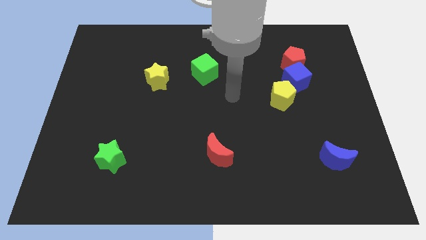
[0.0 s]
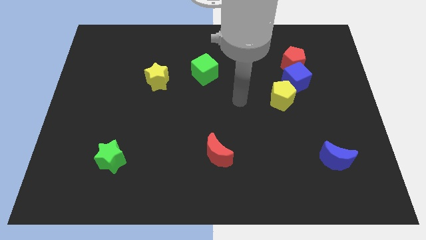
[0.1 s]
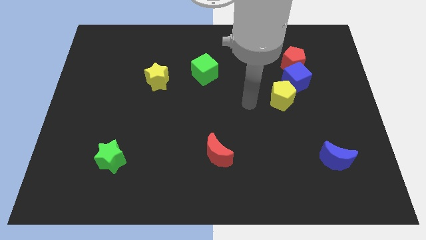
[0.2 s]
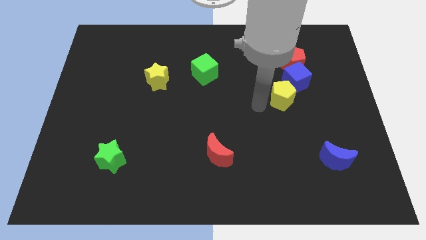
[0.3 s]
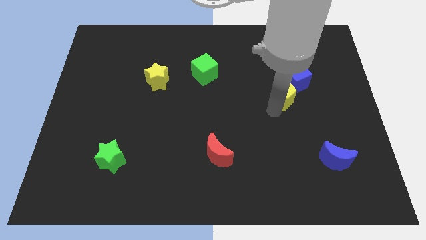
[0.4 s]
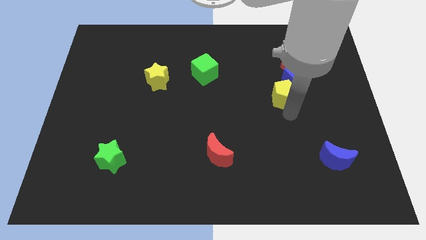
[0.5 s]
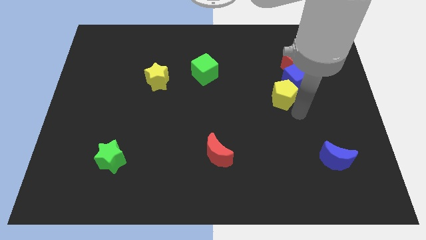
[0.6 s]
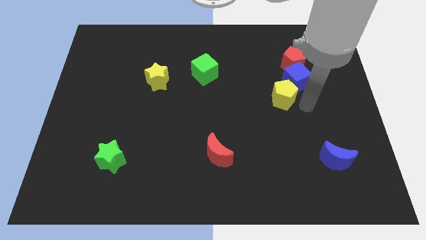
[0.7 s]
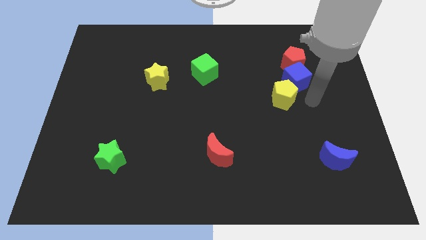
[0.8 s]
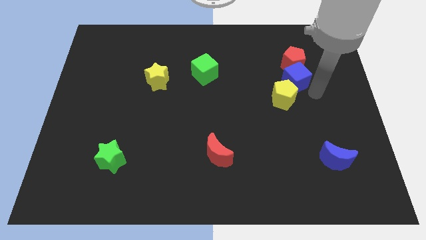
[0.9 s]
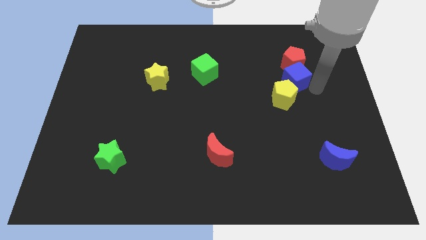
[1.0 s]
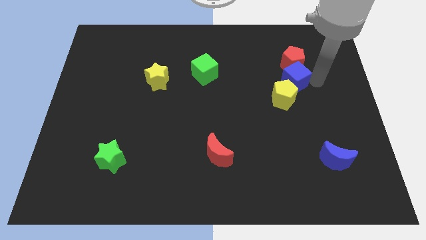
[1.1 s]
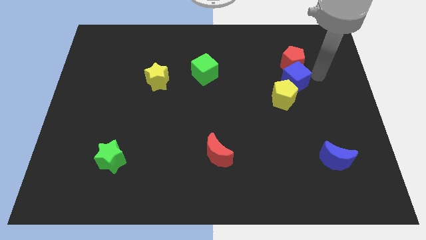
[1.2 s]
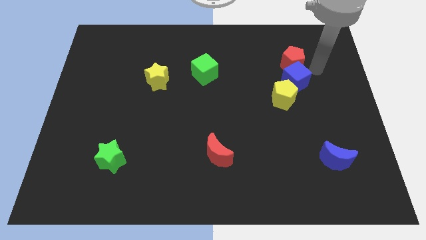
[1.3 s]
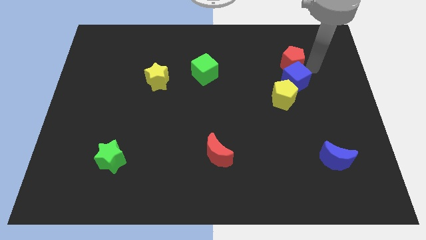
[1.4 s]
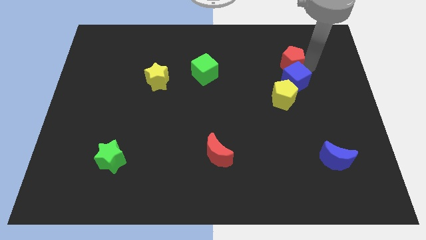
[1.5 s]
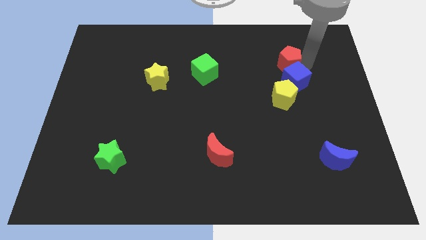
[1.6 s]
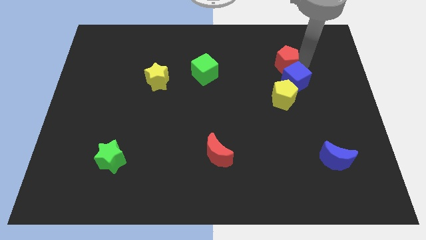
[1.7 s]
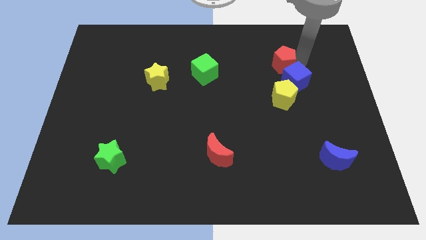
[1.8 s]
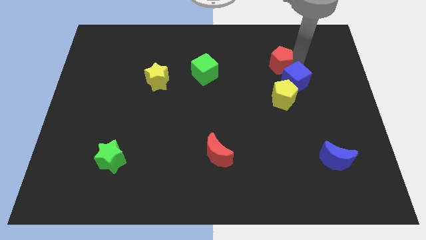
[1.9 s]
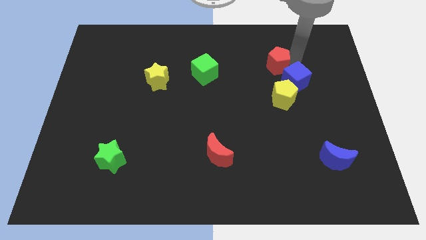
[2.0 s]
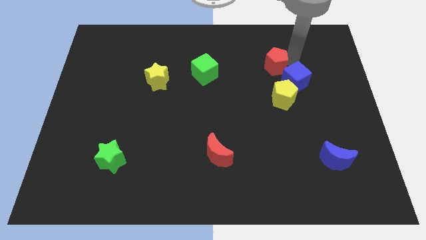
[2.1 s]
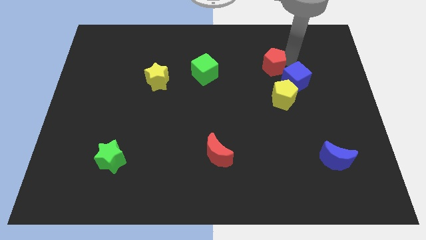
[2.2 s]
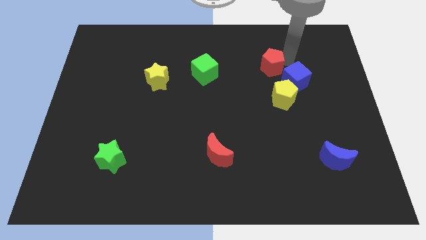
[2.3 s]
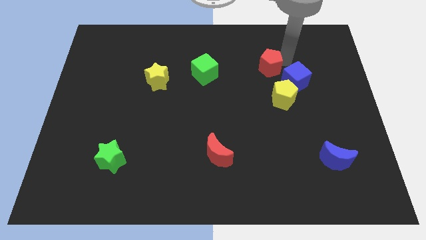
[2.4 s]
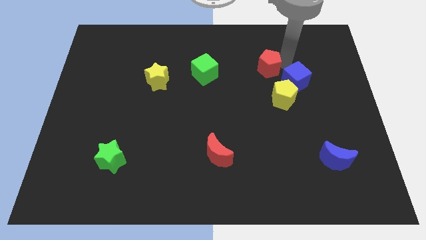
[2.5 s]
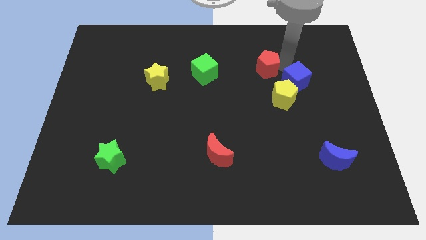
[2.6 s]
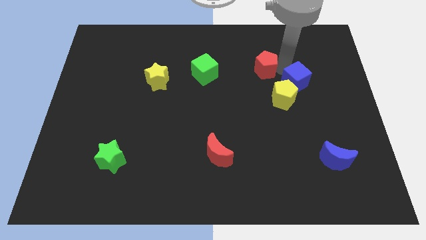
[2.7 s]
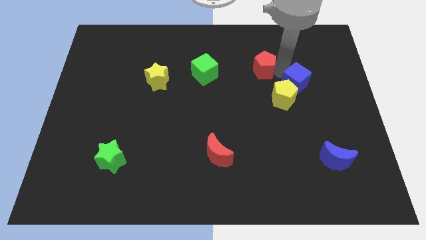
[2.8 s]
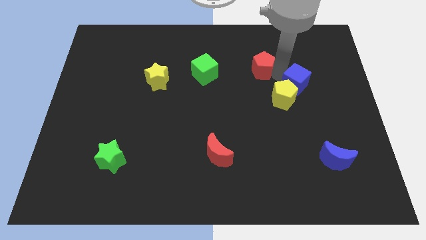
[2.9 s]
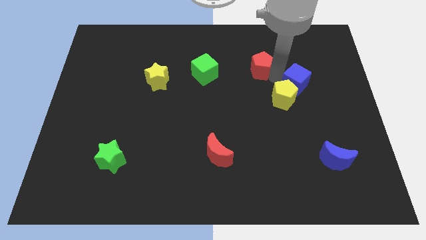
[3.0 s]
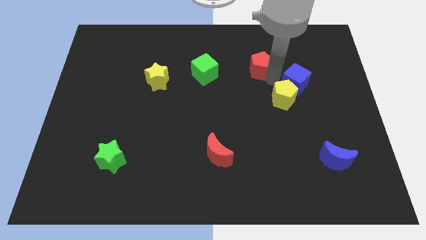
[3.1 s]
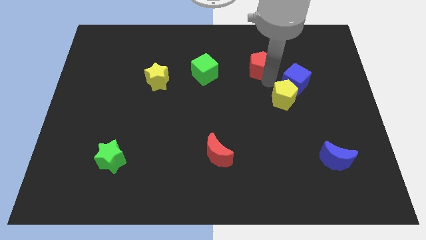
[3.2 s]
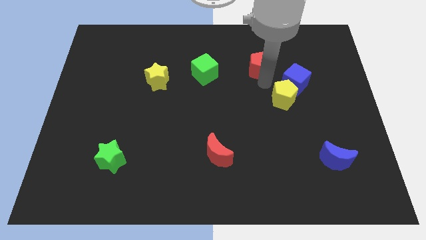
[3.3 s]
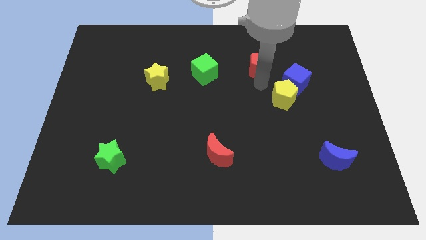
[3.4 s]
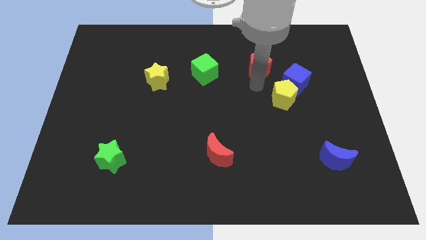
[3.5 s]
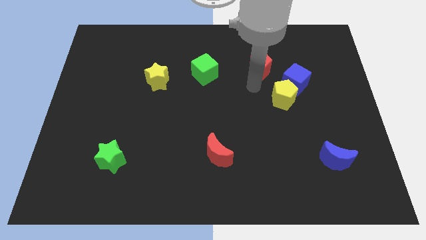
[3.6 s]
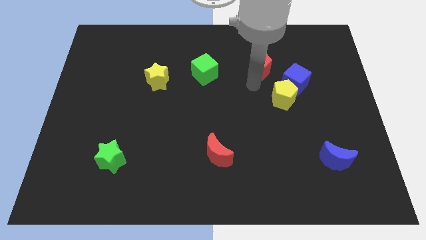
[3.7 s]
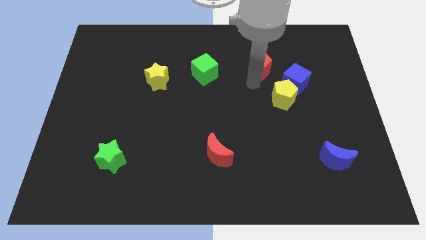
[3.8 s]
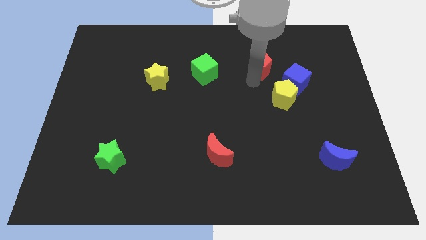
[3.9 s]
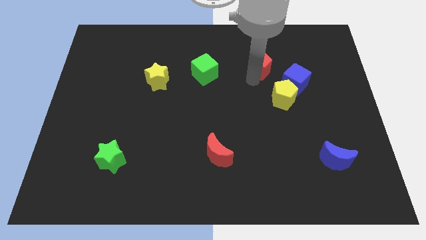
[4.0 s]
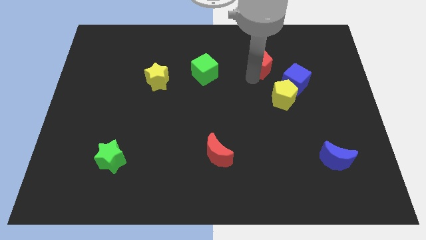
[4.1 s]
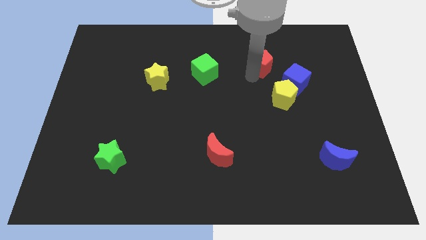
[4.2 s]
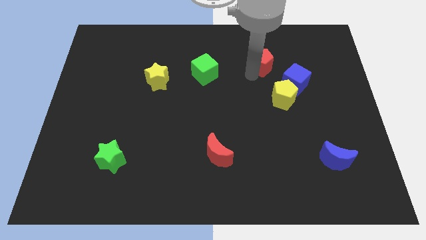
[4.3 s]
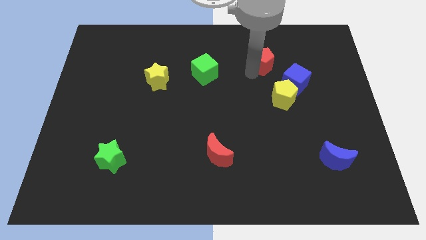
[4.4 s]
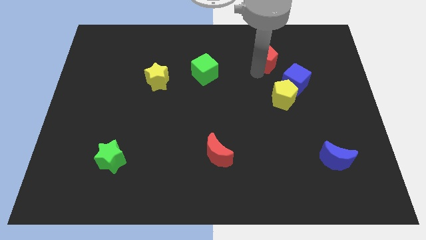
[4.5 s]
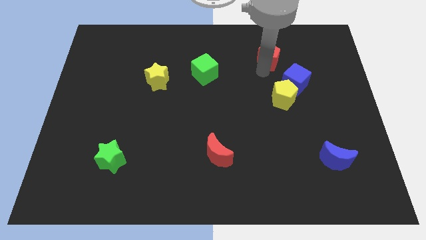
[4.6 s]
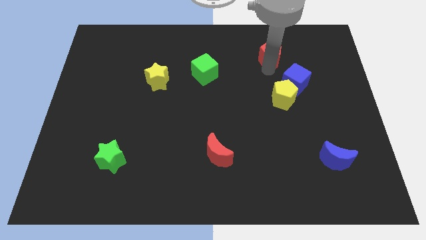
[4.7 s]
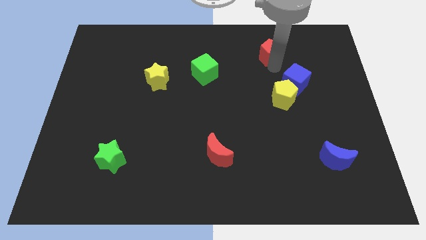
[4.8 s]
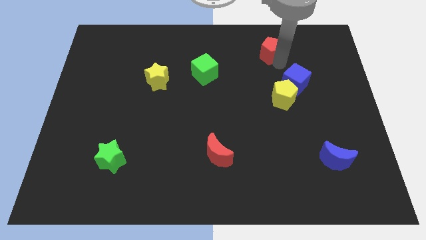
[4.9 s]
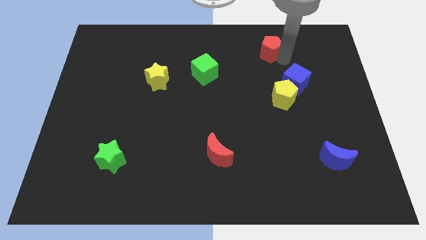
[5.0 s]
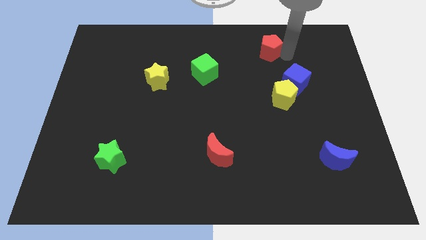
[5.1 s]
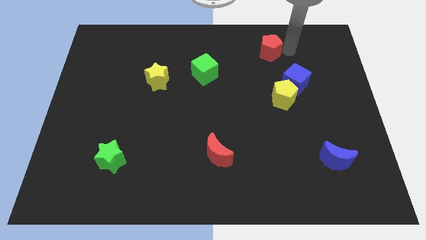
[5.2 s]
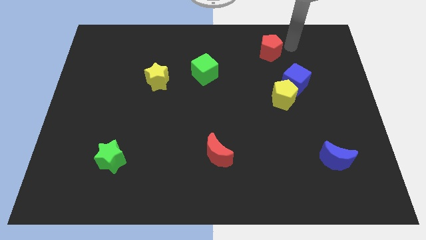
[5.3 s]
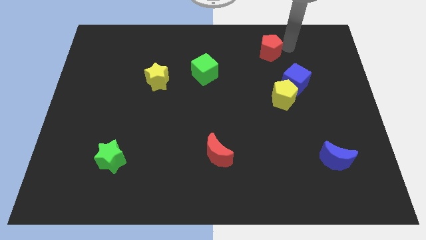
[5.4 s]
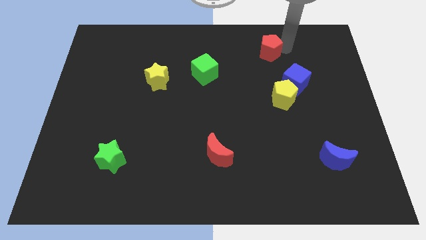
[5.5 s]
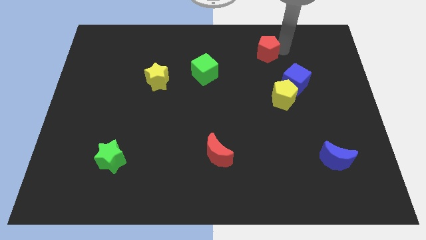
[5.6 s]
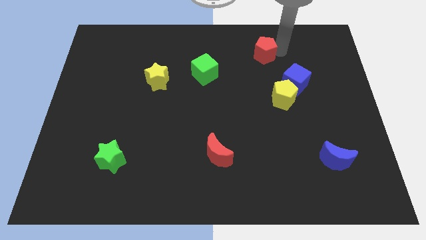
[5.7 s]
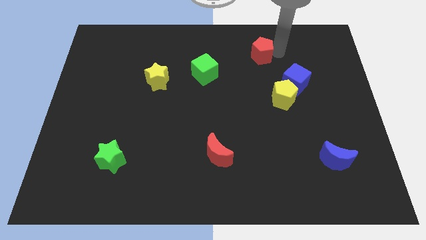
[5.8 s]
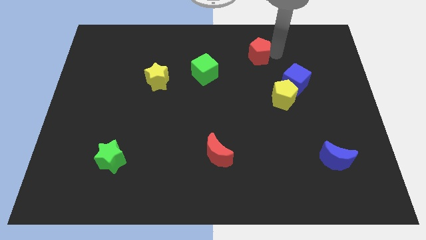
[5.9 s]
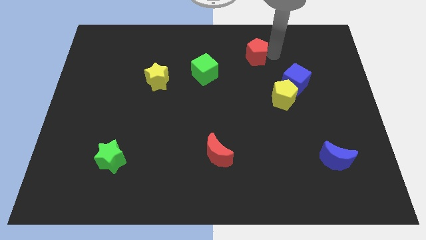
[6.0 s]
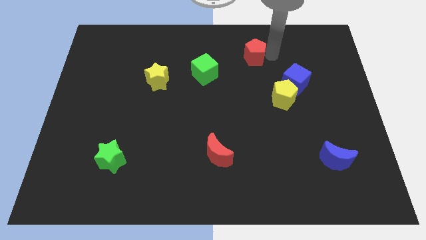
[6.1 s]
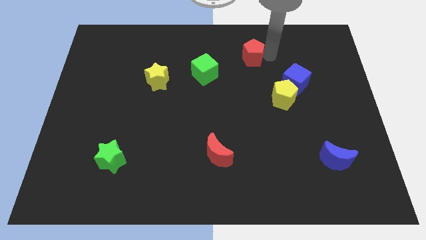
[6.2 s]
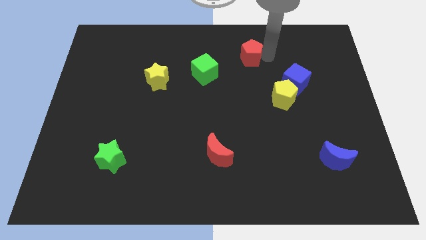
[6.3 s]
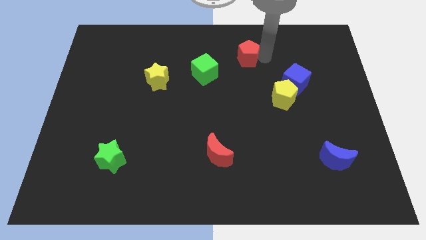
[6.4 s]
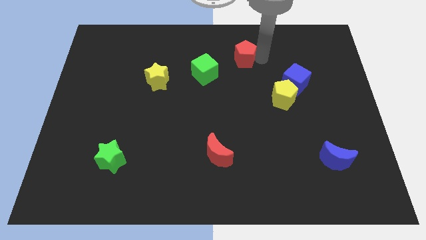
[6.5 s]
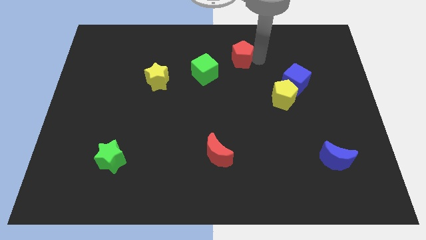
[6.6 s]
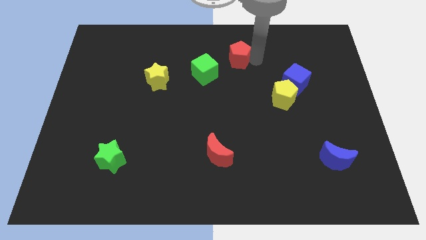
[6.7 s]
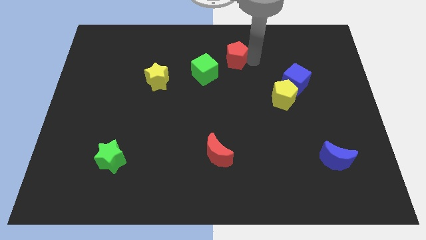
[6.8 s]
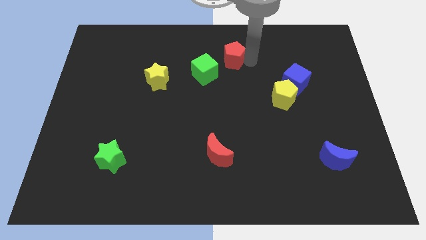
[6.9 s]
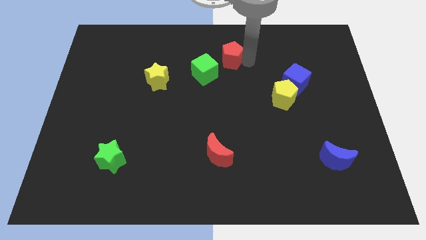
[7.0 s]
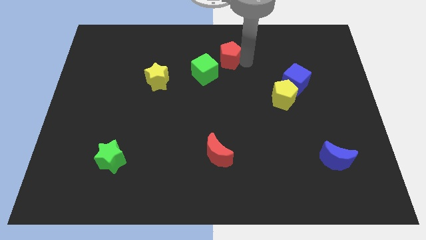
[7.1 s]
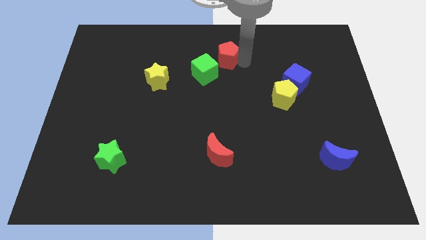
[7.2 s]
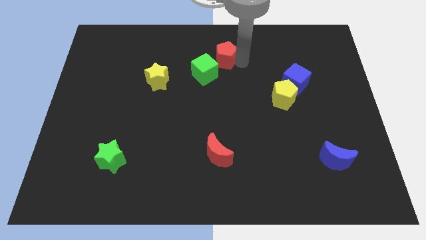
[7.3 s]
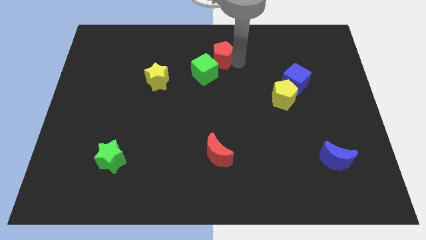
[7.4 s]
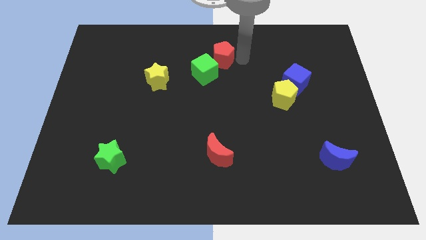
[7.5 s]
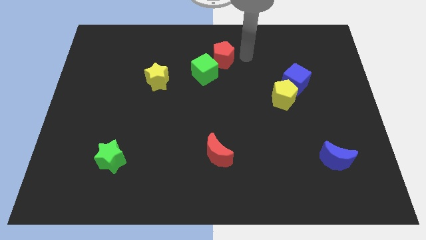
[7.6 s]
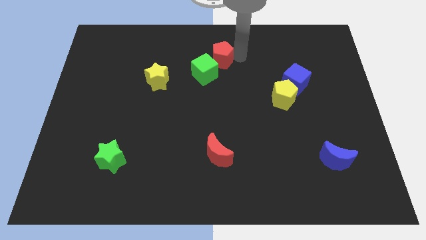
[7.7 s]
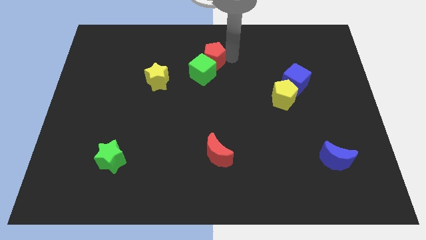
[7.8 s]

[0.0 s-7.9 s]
move the red pentagon left
